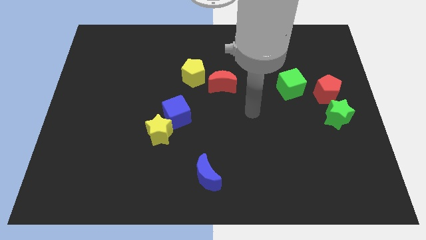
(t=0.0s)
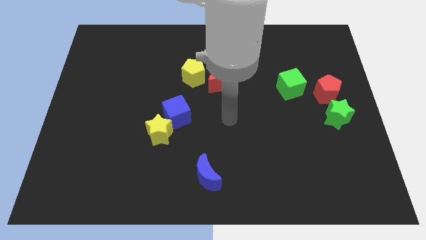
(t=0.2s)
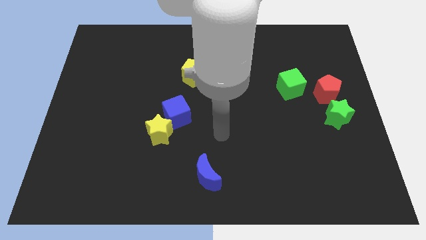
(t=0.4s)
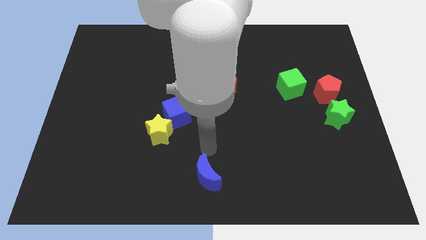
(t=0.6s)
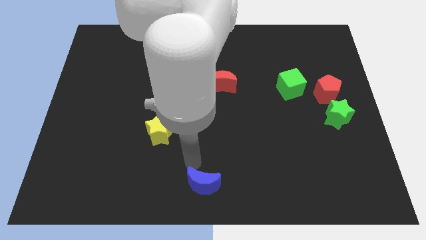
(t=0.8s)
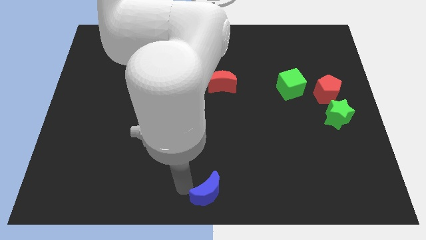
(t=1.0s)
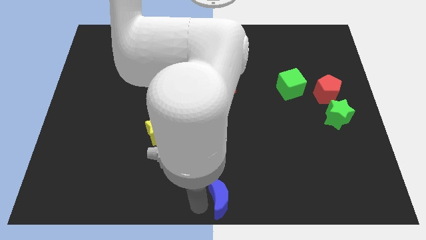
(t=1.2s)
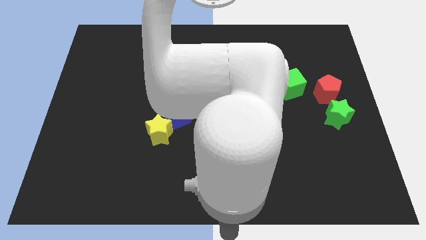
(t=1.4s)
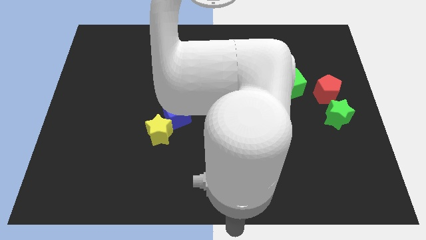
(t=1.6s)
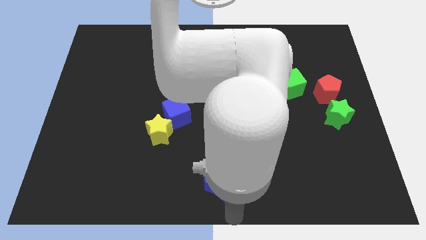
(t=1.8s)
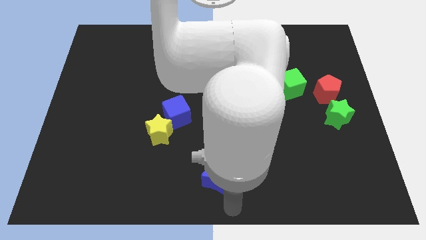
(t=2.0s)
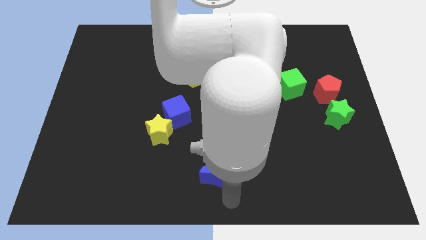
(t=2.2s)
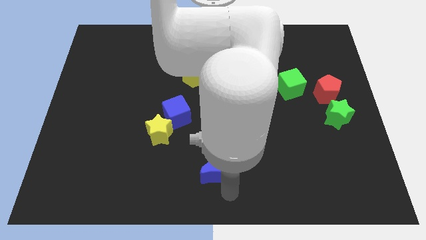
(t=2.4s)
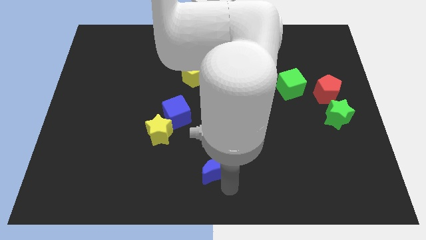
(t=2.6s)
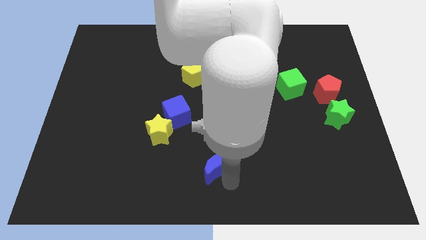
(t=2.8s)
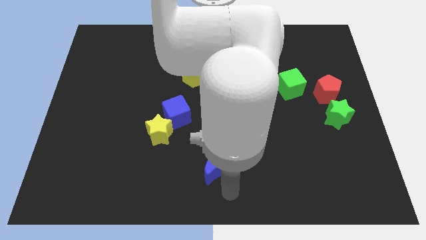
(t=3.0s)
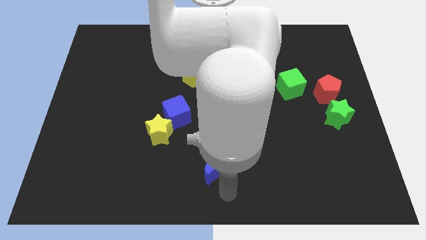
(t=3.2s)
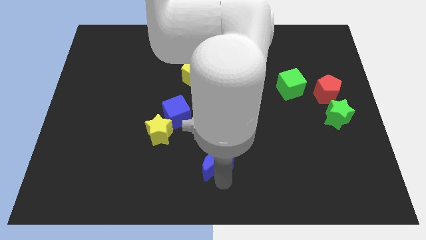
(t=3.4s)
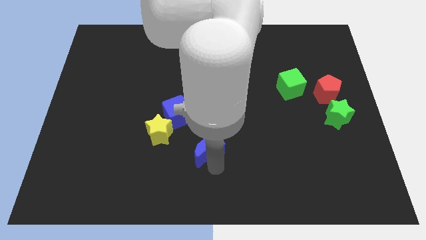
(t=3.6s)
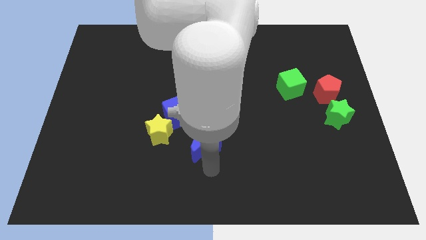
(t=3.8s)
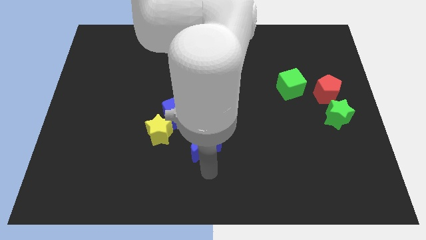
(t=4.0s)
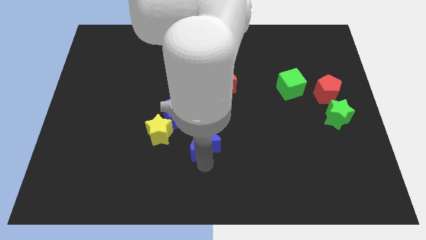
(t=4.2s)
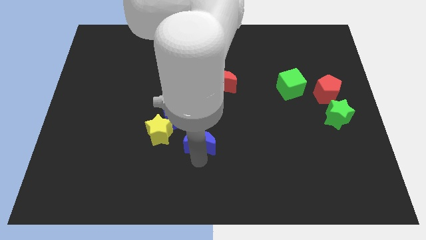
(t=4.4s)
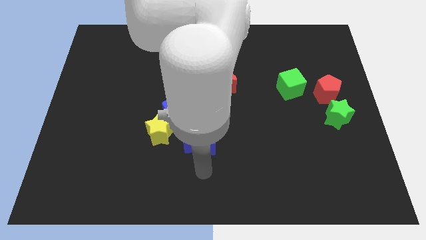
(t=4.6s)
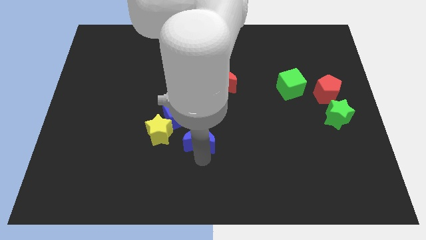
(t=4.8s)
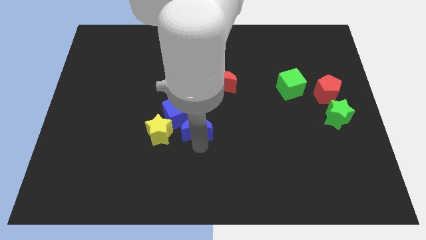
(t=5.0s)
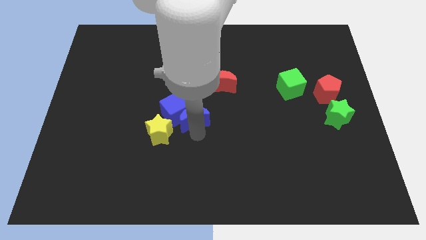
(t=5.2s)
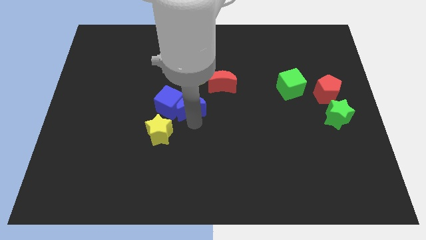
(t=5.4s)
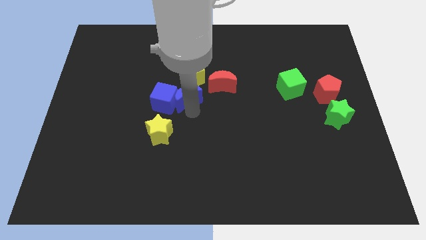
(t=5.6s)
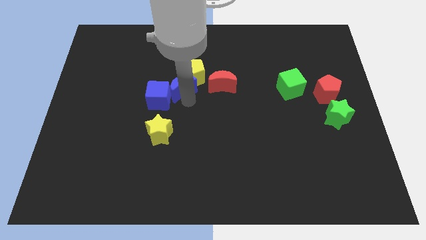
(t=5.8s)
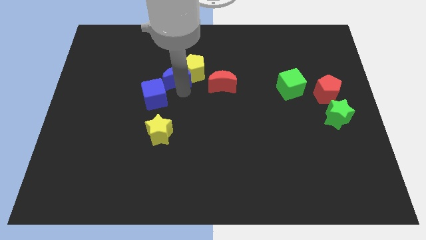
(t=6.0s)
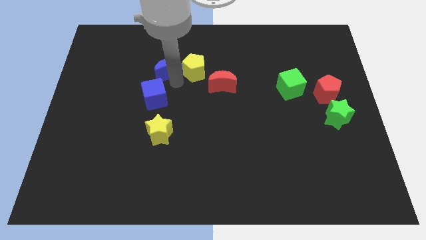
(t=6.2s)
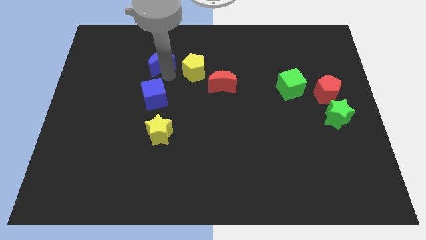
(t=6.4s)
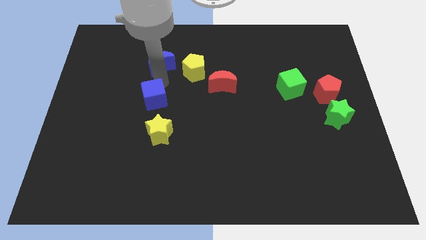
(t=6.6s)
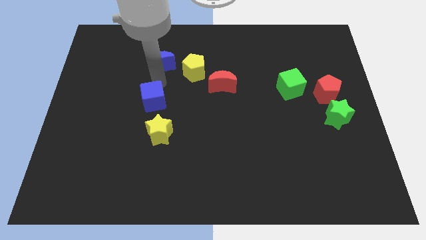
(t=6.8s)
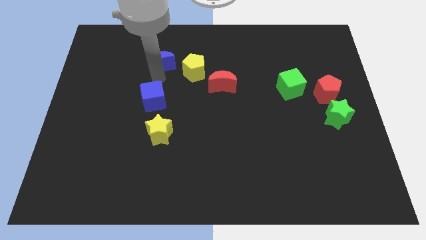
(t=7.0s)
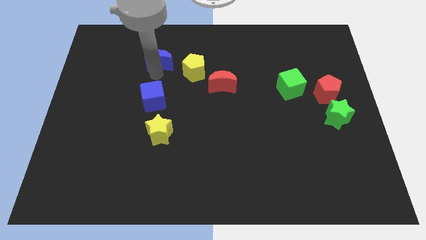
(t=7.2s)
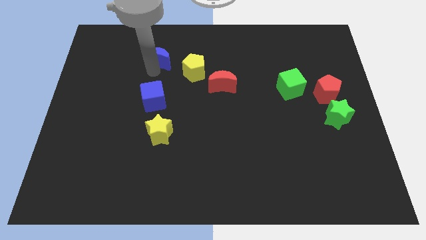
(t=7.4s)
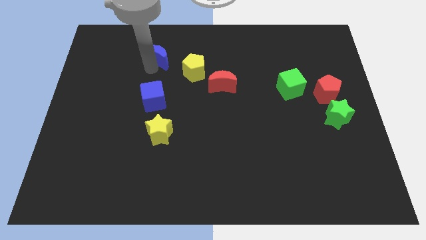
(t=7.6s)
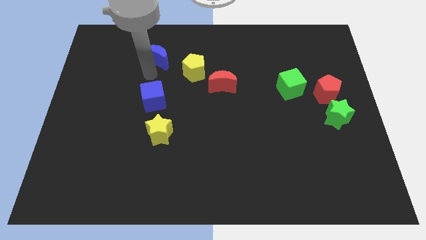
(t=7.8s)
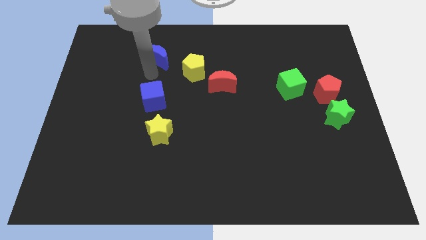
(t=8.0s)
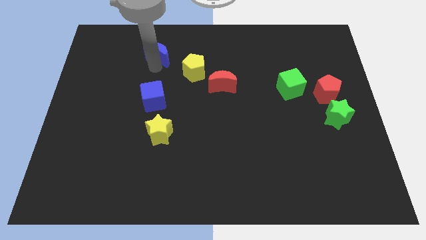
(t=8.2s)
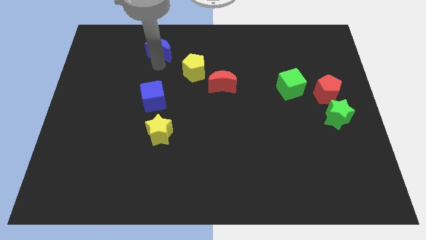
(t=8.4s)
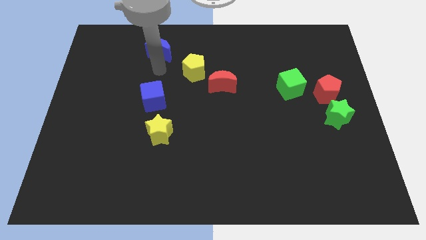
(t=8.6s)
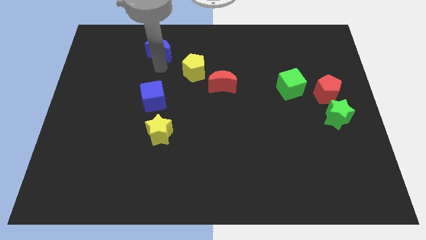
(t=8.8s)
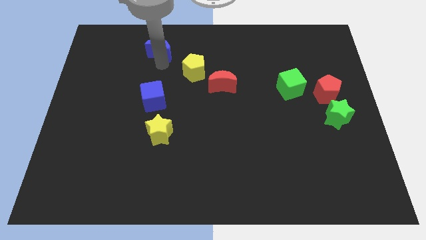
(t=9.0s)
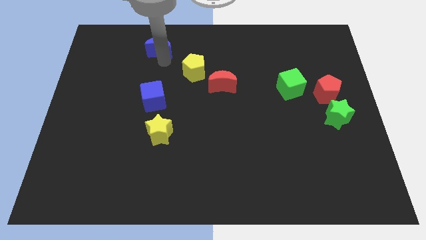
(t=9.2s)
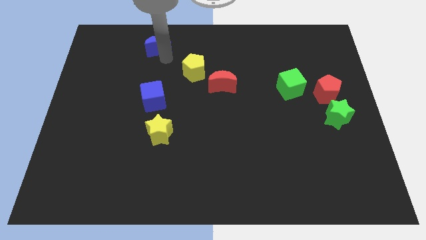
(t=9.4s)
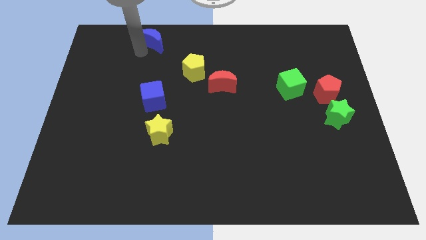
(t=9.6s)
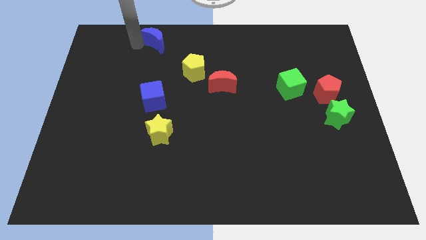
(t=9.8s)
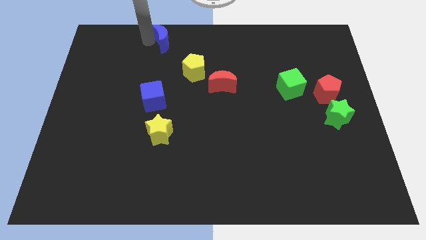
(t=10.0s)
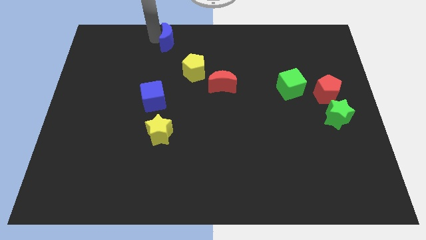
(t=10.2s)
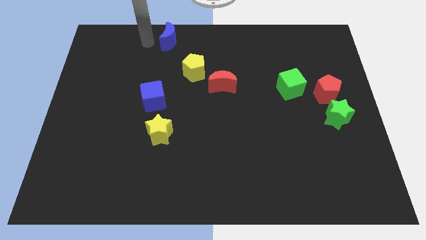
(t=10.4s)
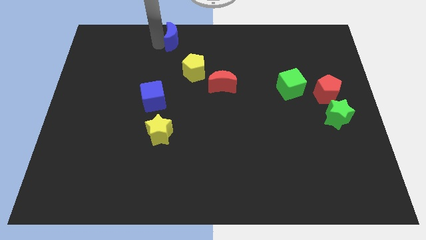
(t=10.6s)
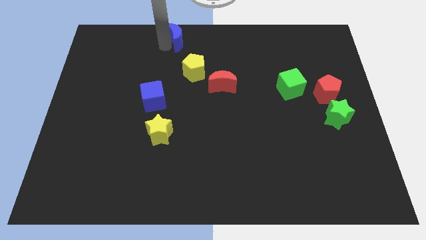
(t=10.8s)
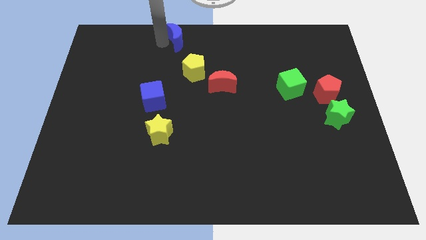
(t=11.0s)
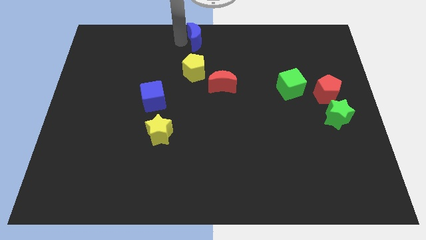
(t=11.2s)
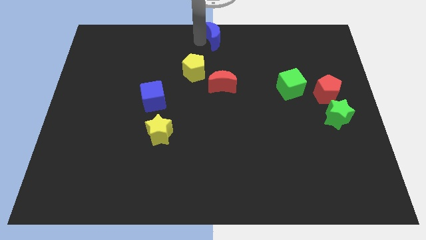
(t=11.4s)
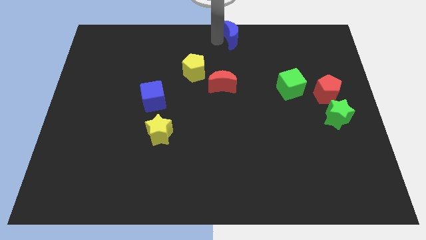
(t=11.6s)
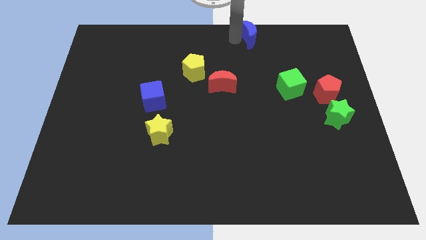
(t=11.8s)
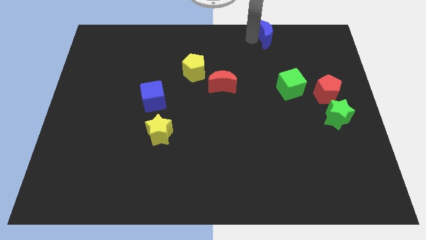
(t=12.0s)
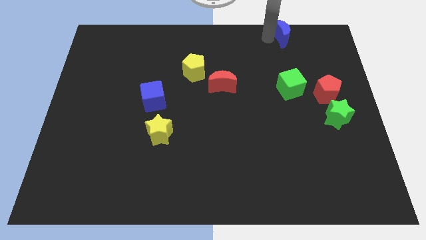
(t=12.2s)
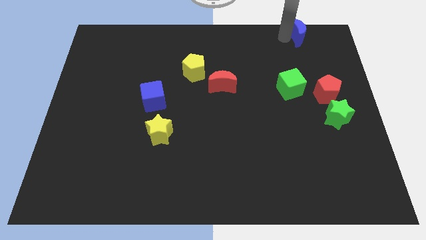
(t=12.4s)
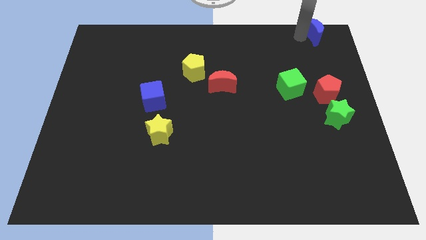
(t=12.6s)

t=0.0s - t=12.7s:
slide the blue moon to the top right corner
